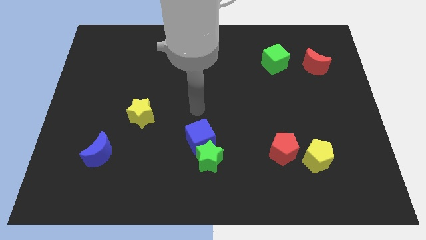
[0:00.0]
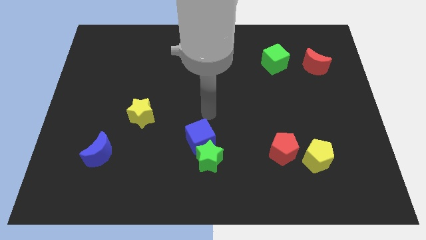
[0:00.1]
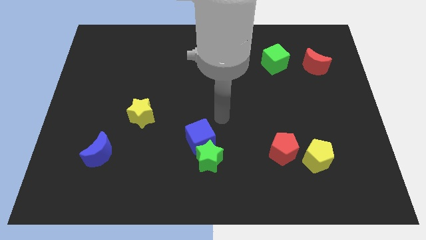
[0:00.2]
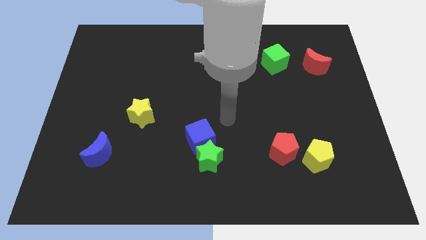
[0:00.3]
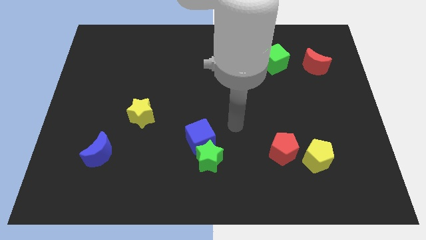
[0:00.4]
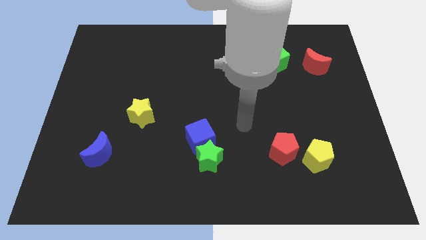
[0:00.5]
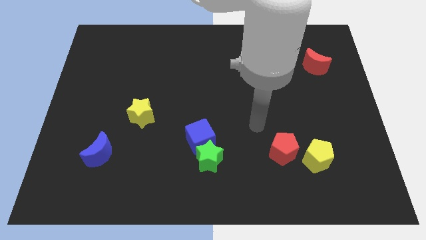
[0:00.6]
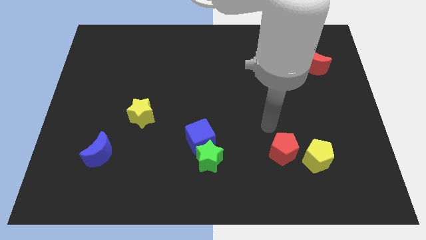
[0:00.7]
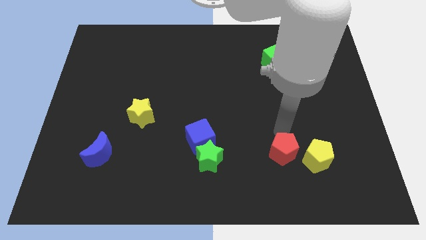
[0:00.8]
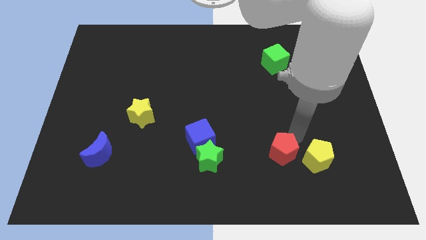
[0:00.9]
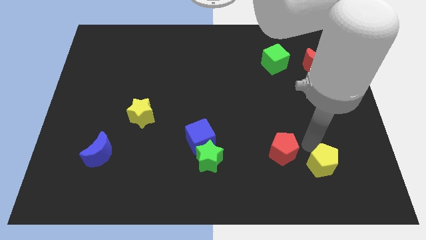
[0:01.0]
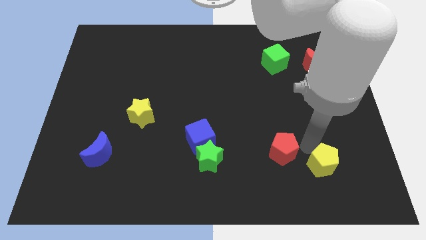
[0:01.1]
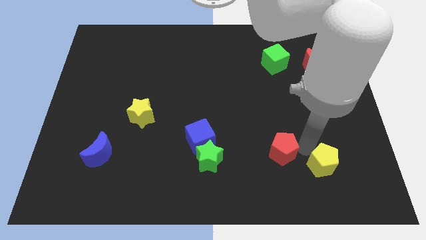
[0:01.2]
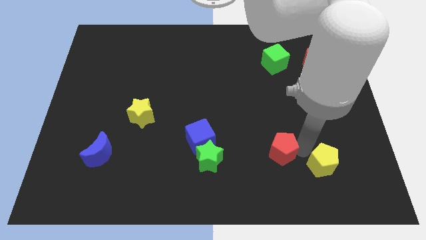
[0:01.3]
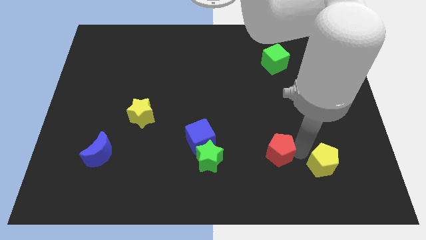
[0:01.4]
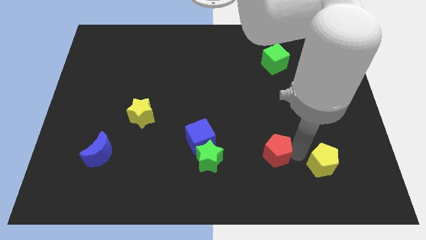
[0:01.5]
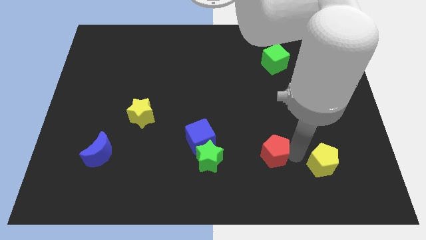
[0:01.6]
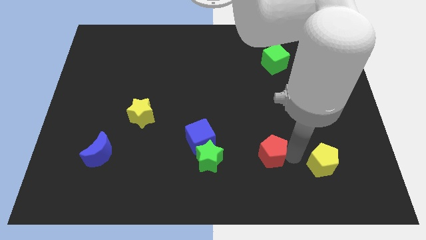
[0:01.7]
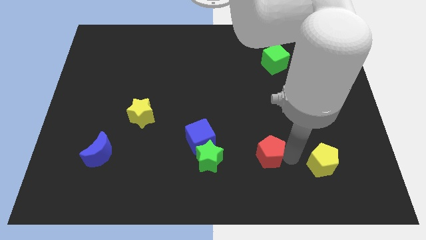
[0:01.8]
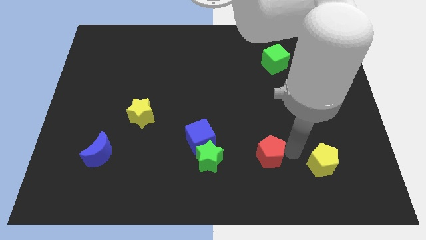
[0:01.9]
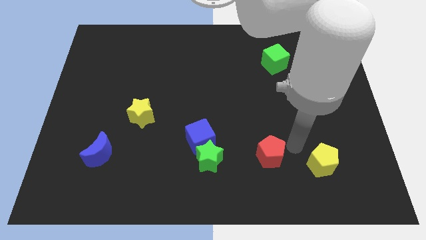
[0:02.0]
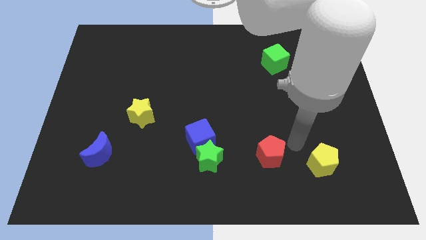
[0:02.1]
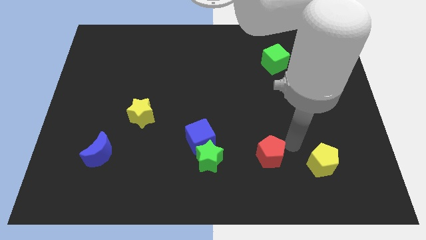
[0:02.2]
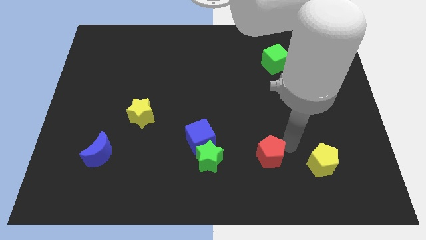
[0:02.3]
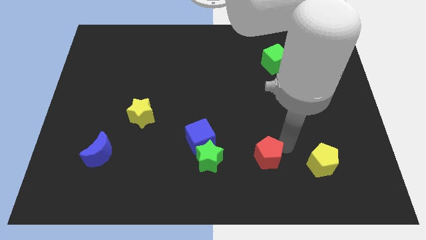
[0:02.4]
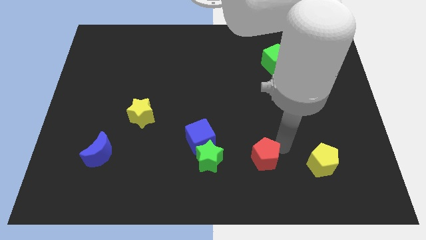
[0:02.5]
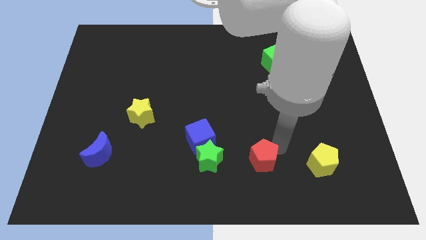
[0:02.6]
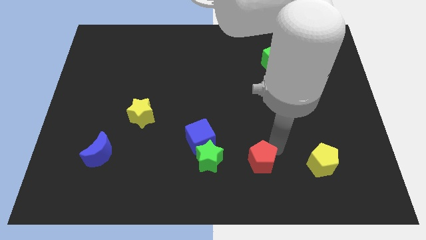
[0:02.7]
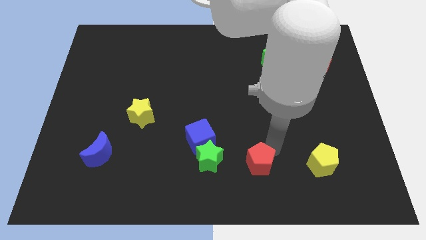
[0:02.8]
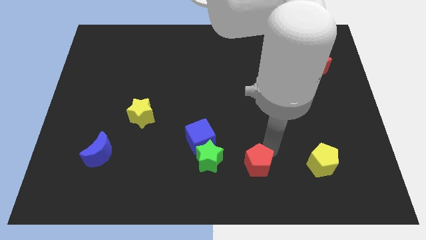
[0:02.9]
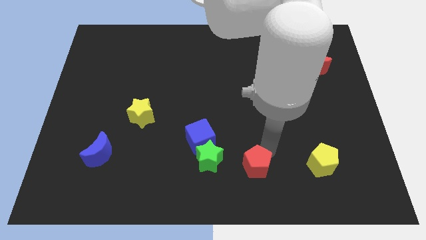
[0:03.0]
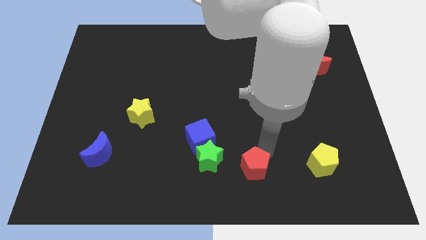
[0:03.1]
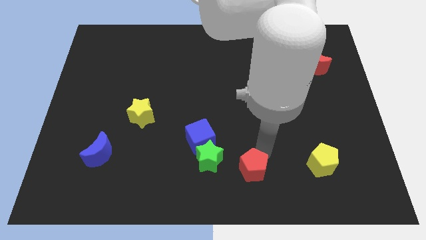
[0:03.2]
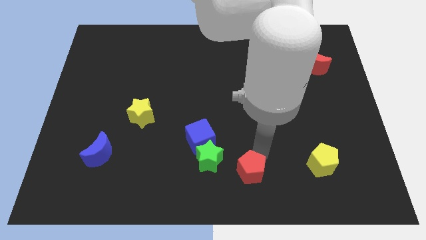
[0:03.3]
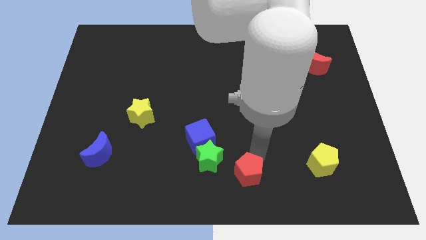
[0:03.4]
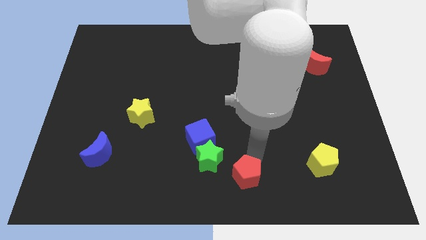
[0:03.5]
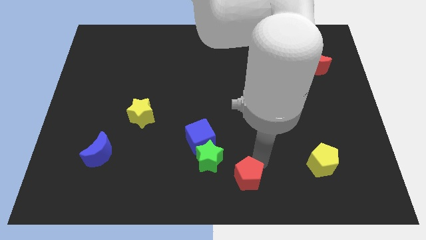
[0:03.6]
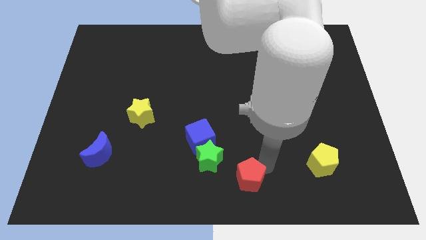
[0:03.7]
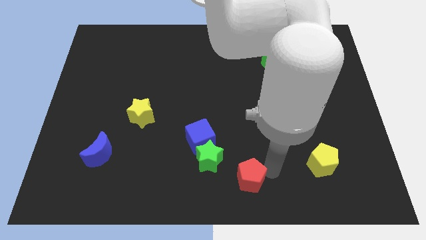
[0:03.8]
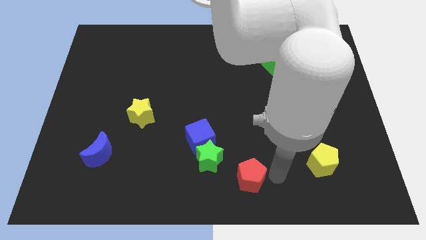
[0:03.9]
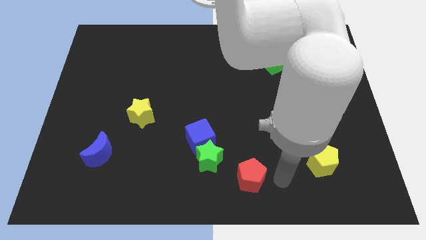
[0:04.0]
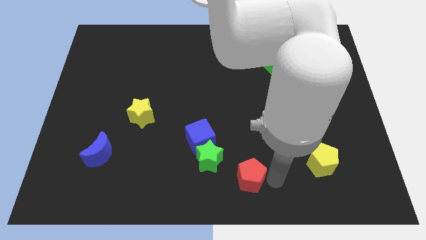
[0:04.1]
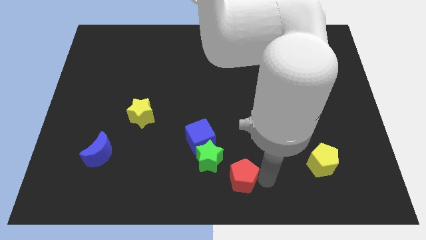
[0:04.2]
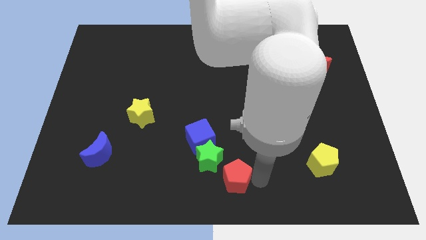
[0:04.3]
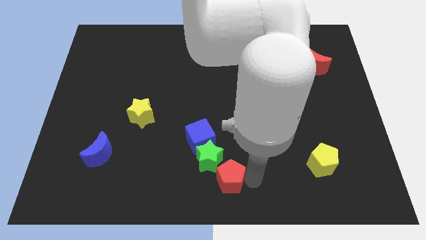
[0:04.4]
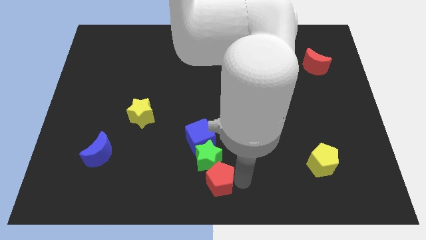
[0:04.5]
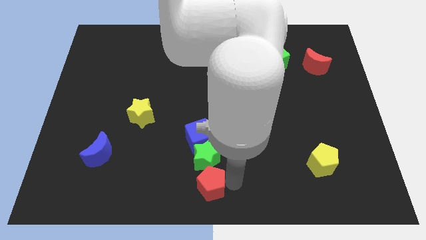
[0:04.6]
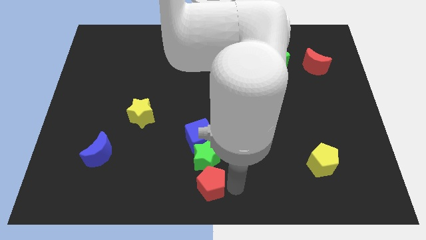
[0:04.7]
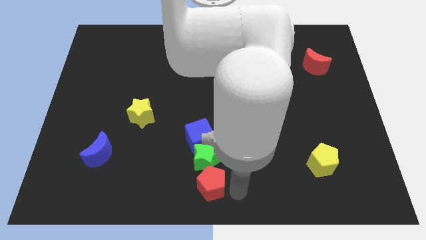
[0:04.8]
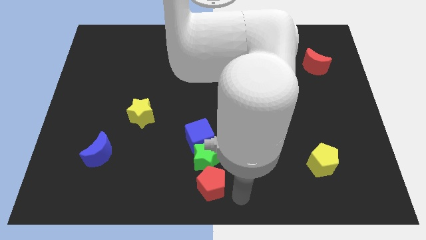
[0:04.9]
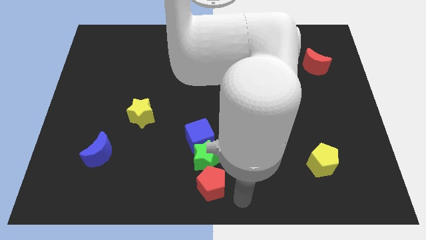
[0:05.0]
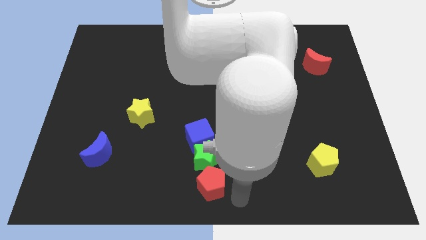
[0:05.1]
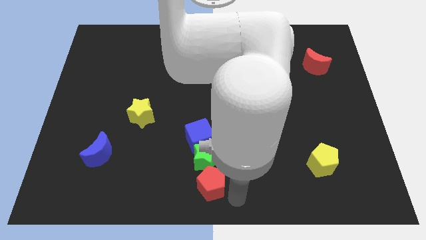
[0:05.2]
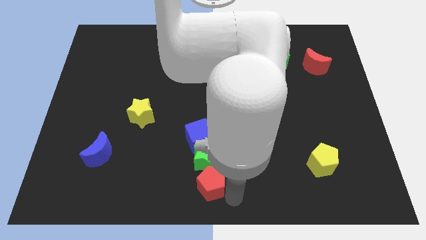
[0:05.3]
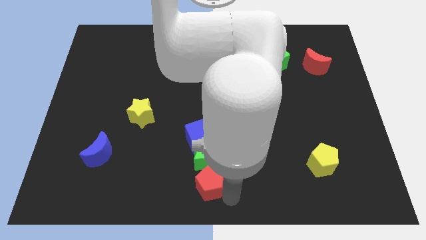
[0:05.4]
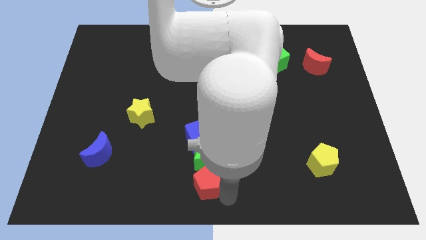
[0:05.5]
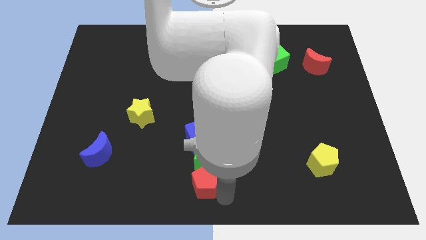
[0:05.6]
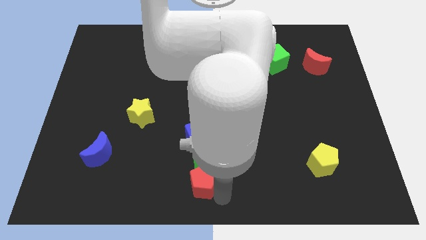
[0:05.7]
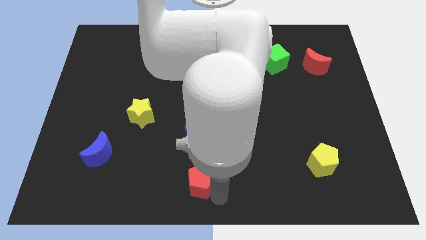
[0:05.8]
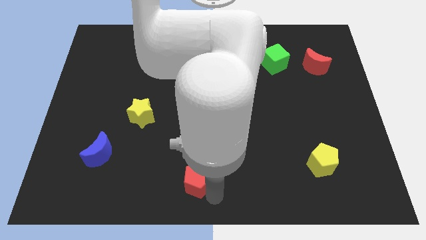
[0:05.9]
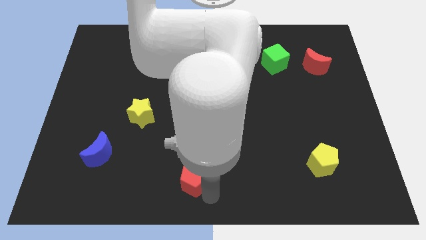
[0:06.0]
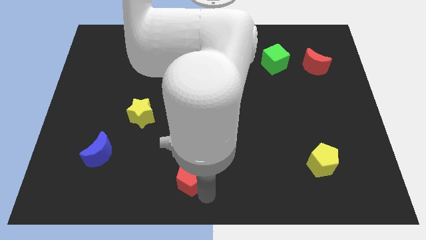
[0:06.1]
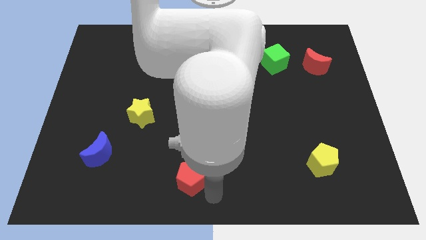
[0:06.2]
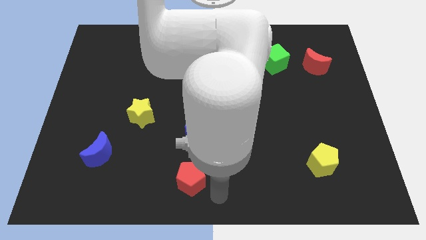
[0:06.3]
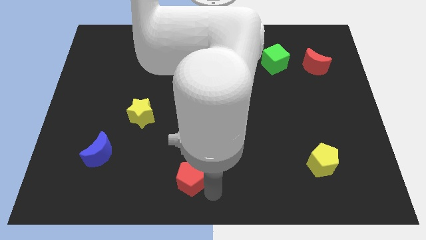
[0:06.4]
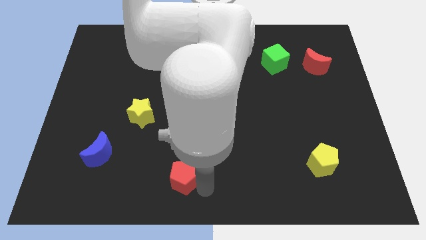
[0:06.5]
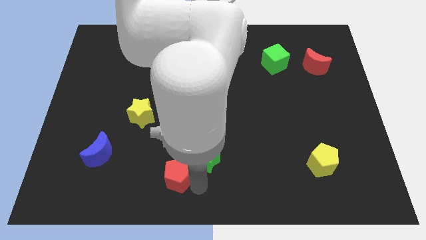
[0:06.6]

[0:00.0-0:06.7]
move the red pentagon to the left

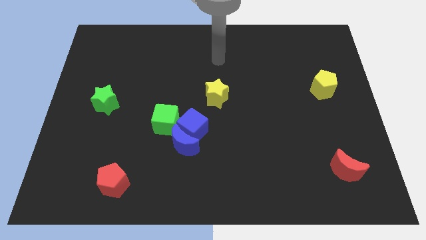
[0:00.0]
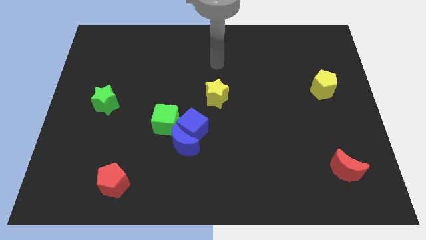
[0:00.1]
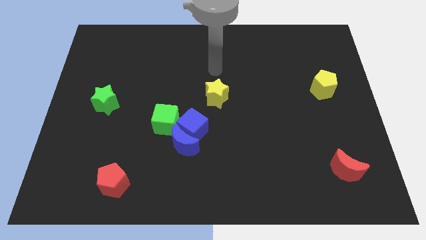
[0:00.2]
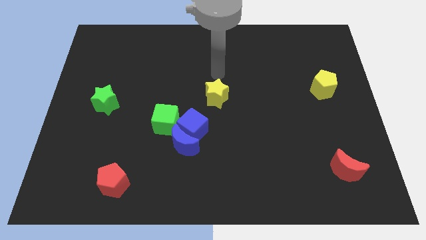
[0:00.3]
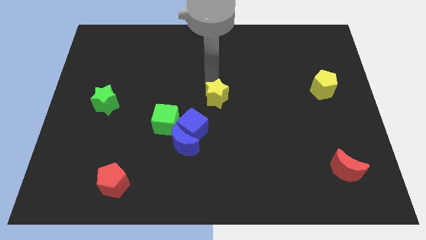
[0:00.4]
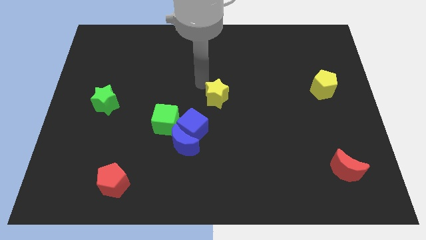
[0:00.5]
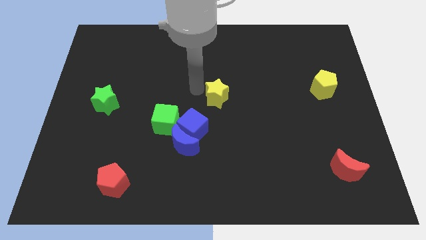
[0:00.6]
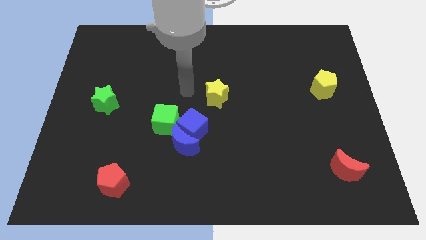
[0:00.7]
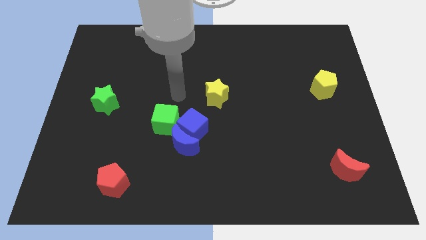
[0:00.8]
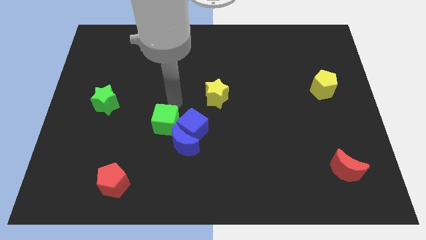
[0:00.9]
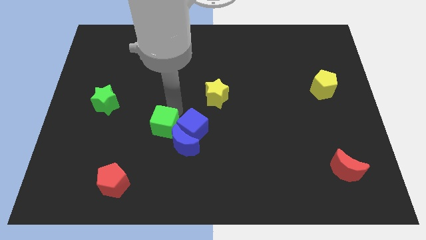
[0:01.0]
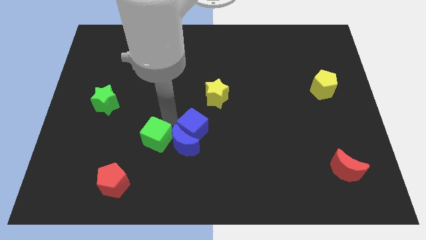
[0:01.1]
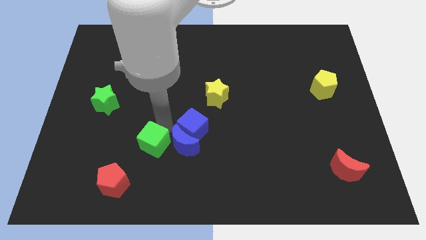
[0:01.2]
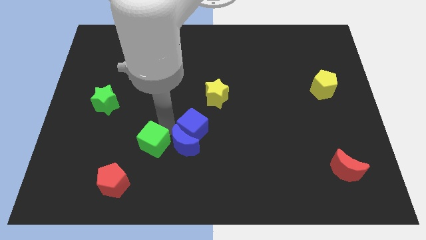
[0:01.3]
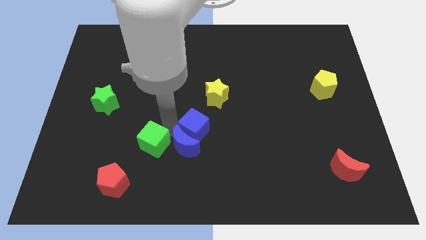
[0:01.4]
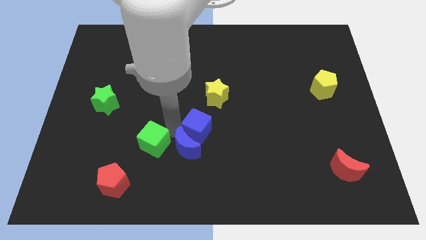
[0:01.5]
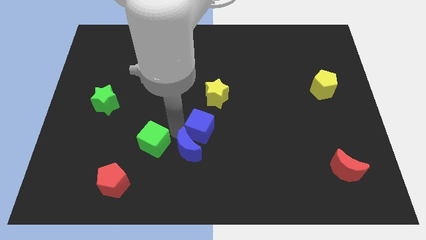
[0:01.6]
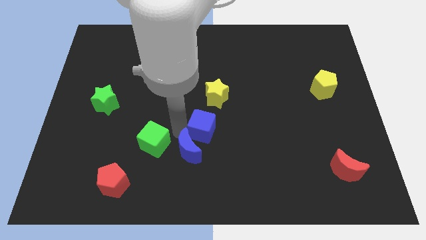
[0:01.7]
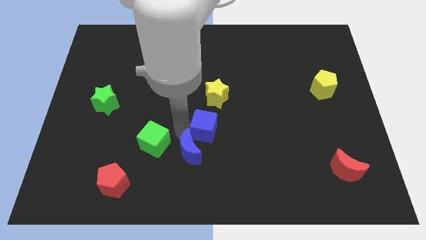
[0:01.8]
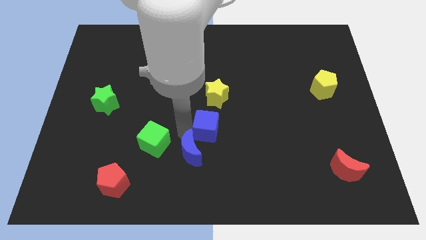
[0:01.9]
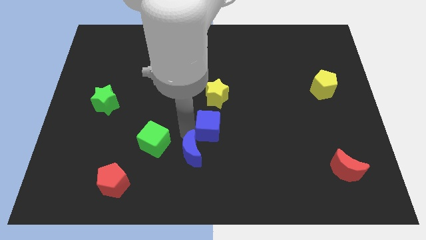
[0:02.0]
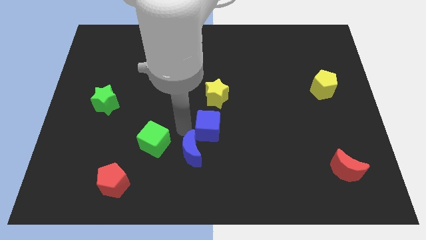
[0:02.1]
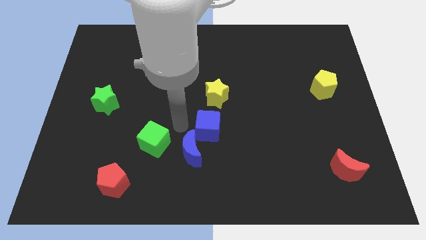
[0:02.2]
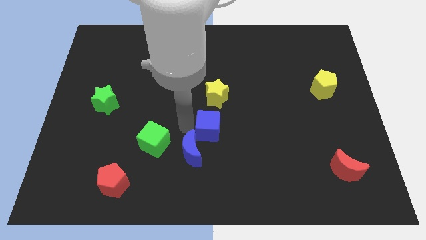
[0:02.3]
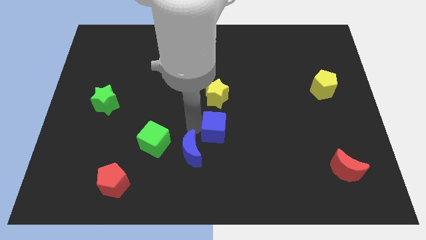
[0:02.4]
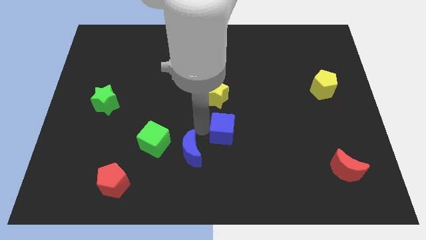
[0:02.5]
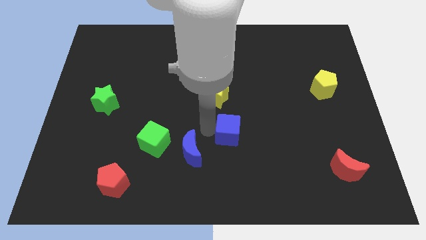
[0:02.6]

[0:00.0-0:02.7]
slide the blue cube somewhat right
